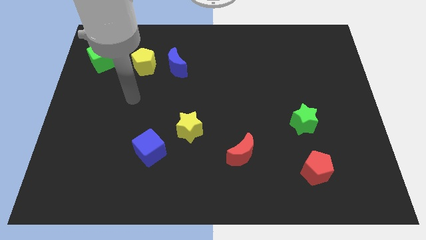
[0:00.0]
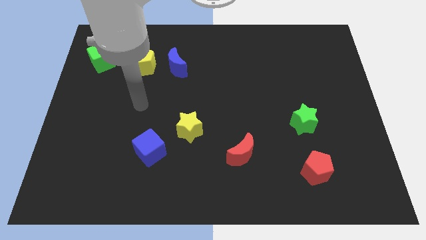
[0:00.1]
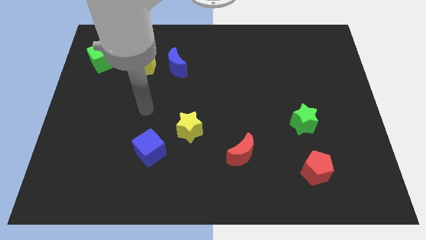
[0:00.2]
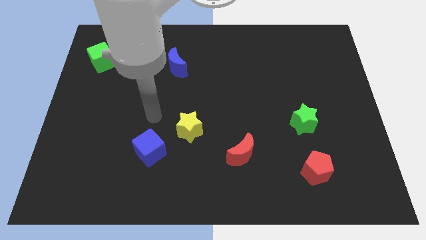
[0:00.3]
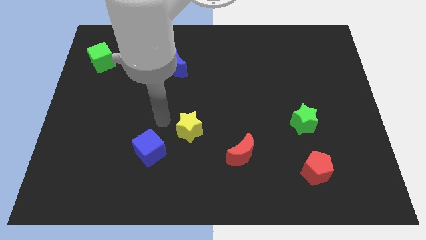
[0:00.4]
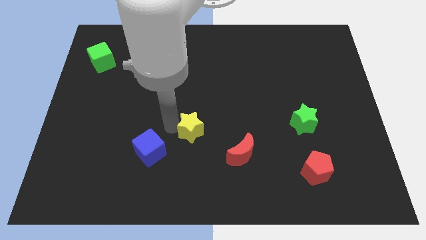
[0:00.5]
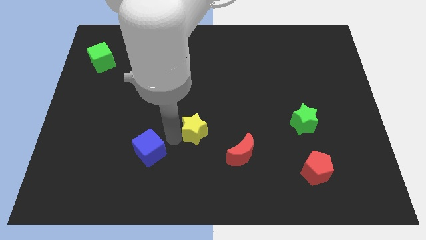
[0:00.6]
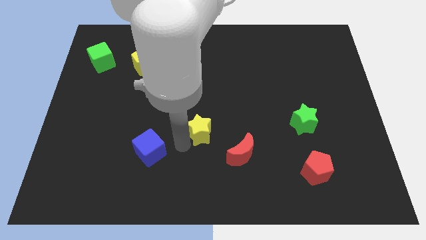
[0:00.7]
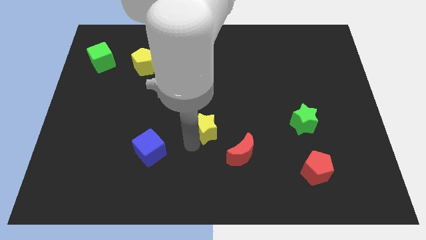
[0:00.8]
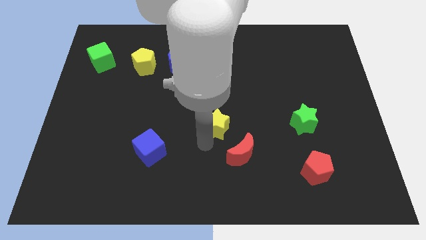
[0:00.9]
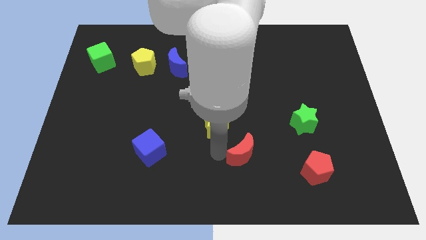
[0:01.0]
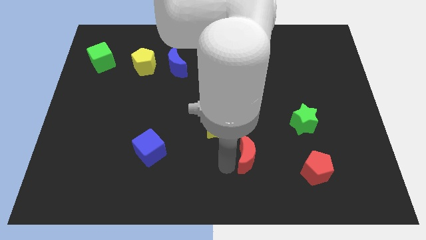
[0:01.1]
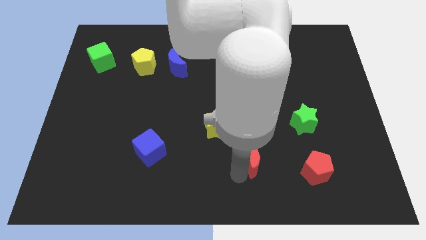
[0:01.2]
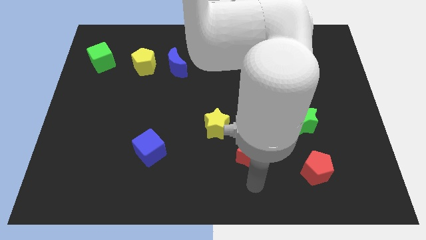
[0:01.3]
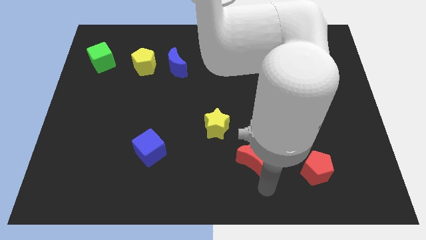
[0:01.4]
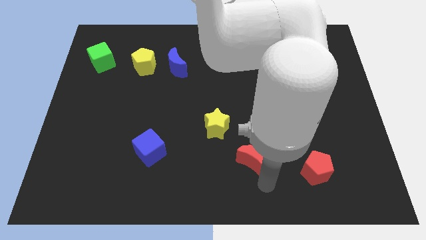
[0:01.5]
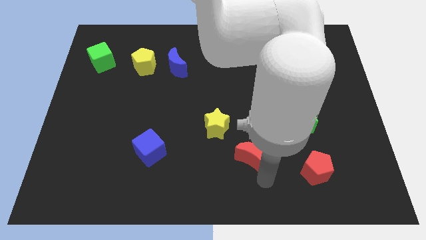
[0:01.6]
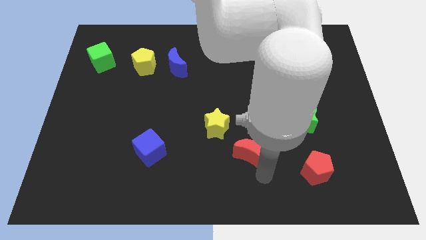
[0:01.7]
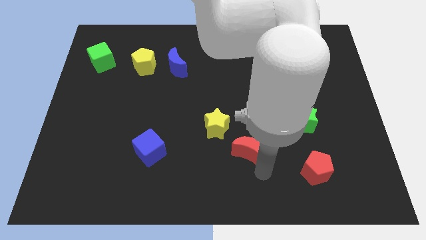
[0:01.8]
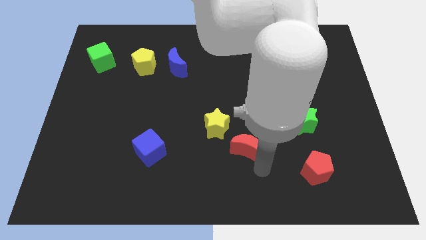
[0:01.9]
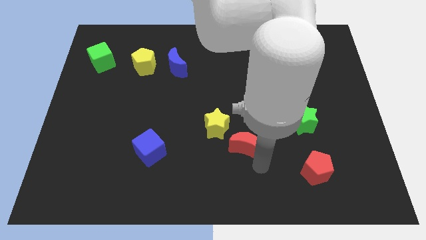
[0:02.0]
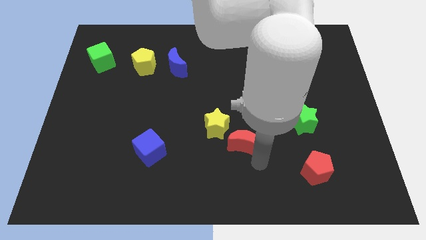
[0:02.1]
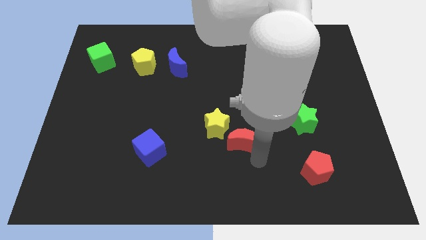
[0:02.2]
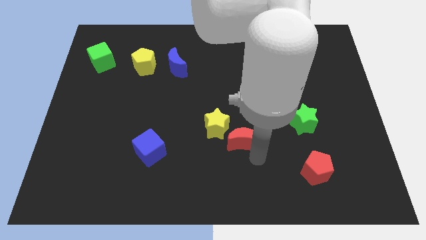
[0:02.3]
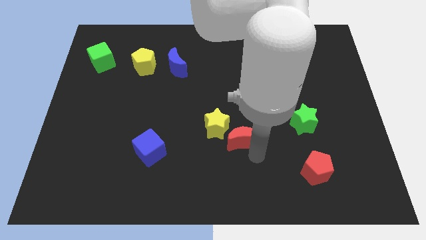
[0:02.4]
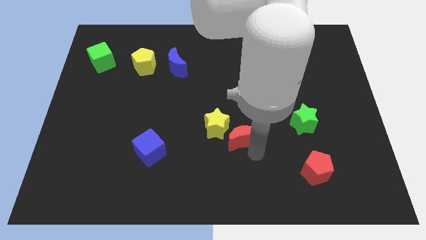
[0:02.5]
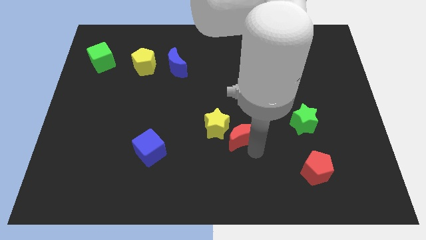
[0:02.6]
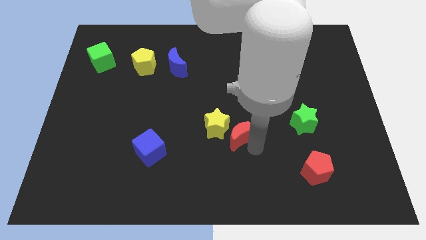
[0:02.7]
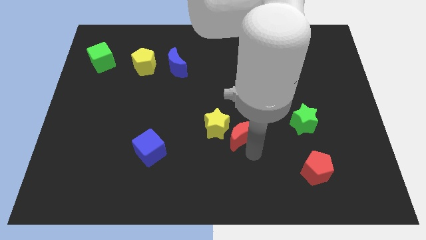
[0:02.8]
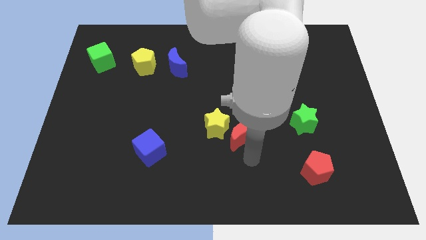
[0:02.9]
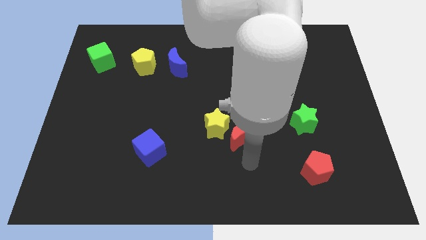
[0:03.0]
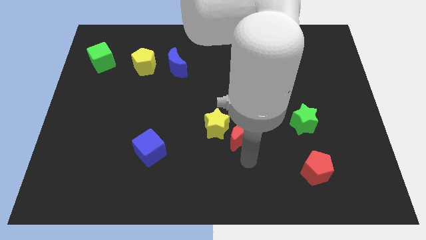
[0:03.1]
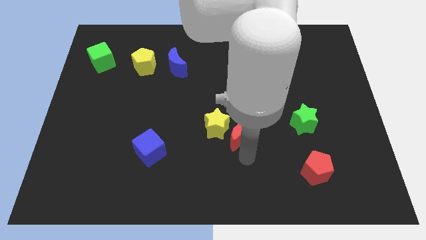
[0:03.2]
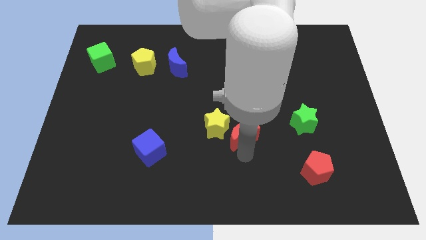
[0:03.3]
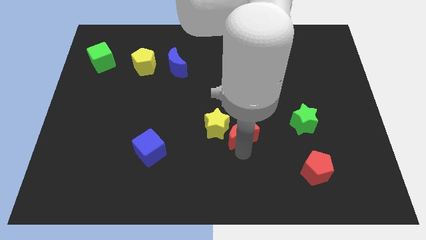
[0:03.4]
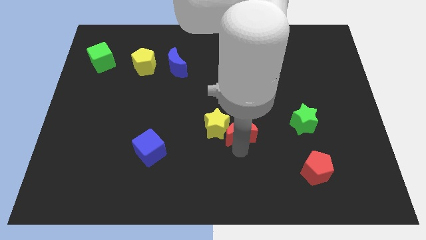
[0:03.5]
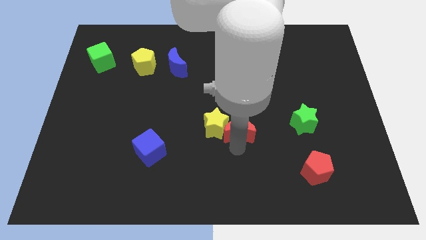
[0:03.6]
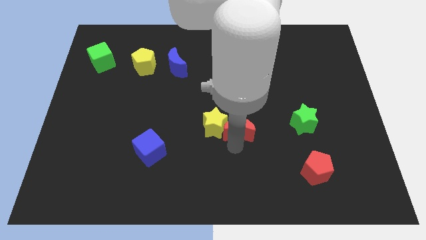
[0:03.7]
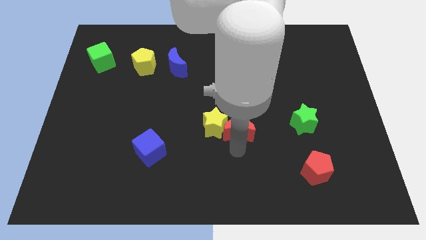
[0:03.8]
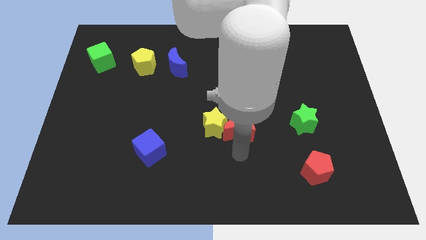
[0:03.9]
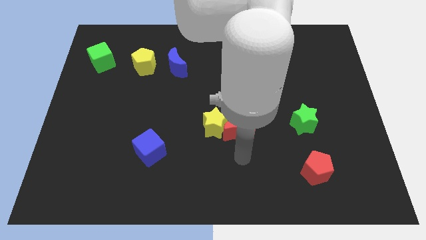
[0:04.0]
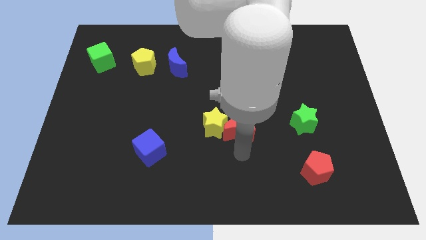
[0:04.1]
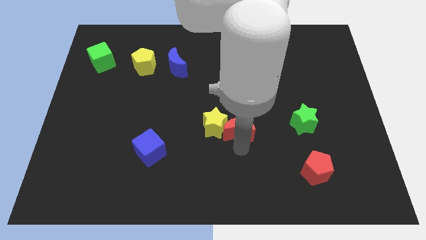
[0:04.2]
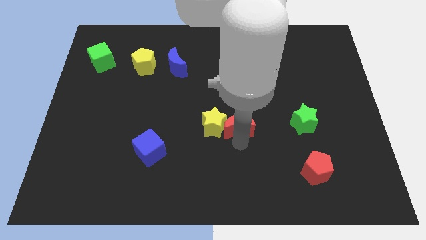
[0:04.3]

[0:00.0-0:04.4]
slightly move the red moon upwards

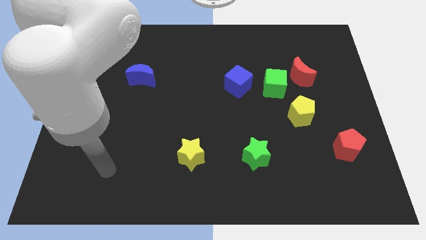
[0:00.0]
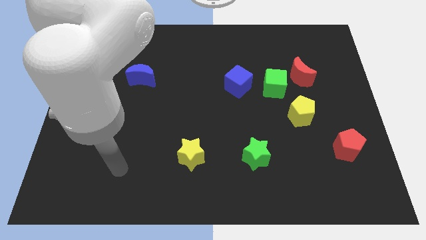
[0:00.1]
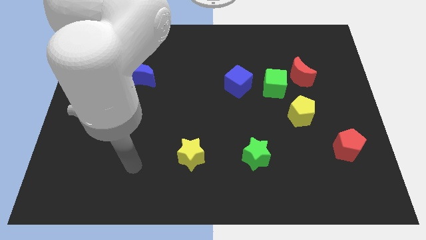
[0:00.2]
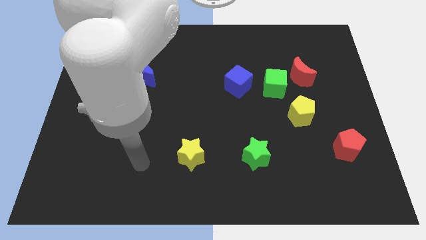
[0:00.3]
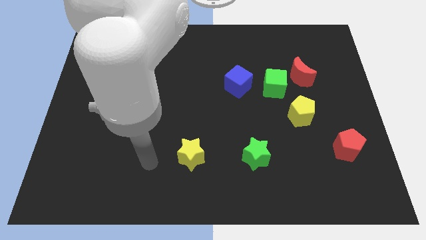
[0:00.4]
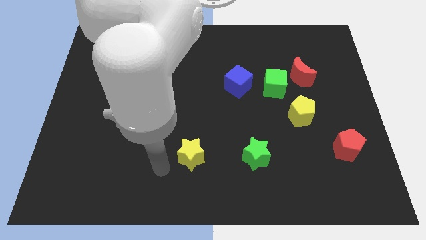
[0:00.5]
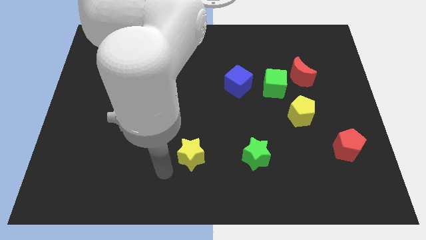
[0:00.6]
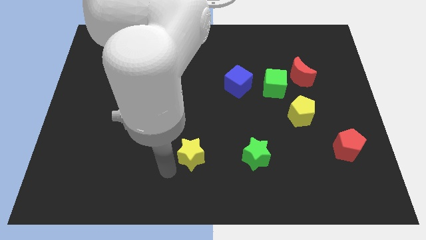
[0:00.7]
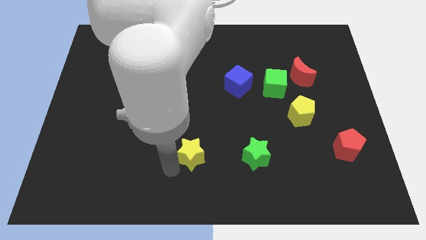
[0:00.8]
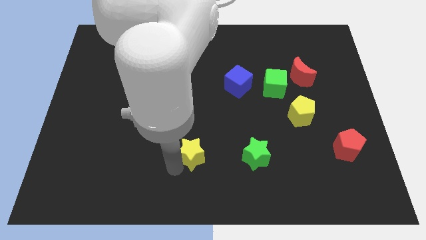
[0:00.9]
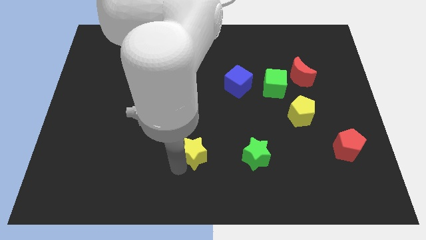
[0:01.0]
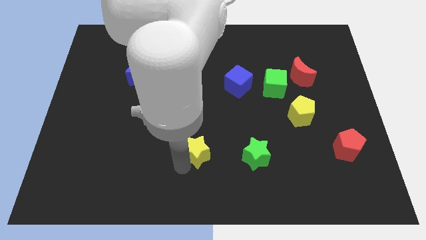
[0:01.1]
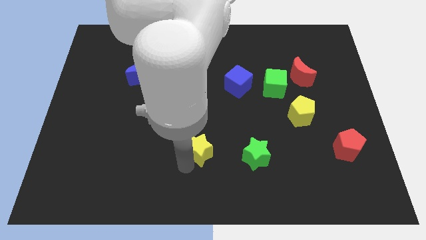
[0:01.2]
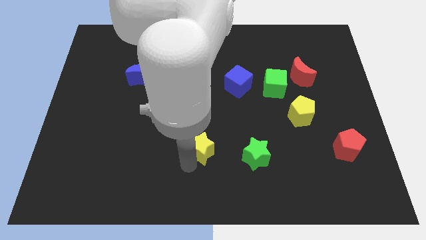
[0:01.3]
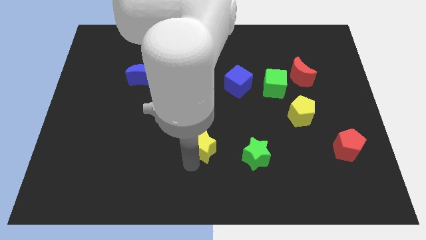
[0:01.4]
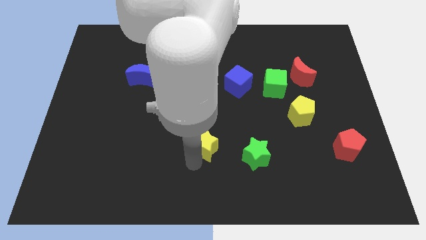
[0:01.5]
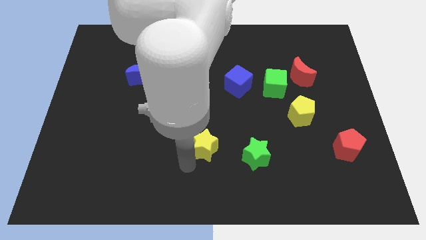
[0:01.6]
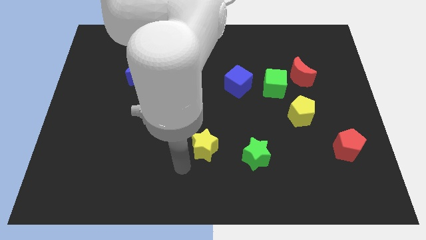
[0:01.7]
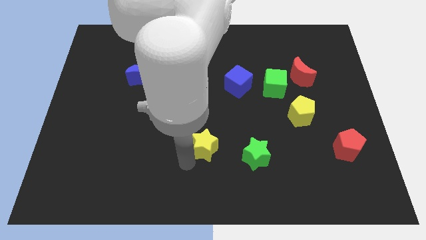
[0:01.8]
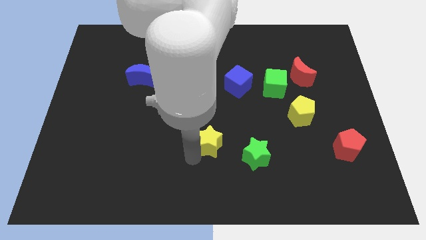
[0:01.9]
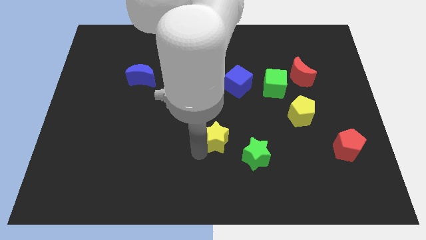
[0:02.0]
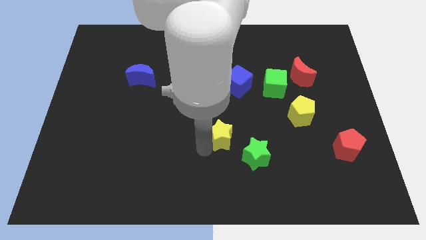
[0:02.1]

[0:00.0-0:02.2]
slightly push the yellow star upwards and then to the right

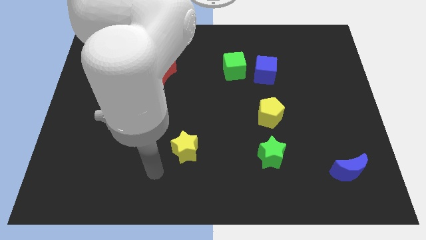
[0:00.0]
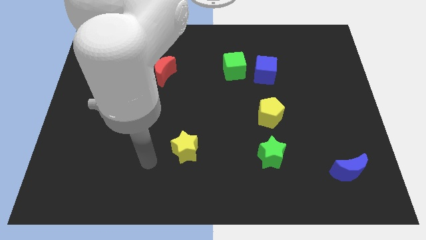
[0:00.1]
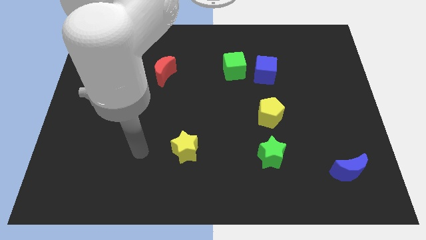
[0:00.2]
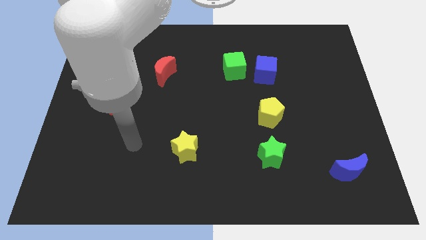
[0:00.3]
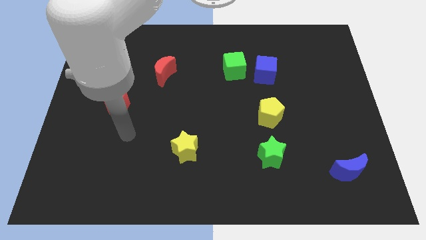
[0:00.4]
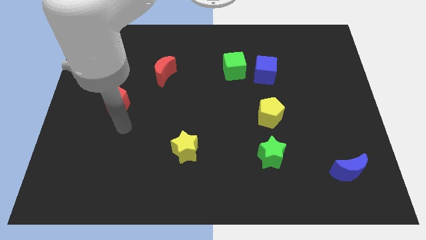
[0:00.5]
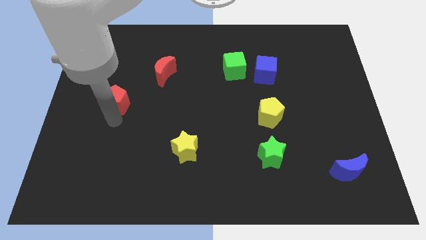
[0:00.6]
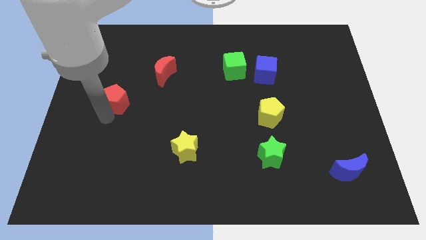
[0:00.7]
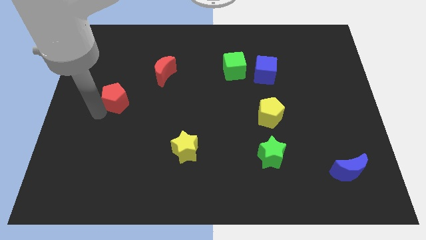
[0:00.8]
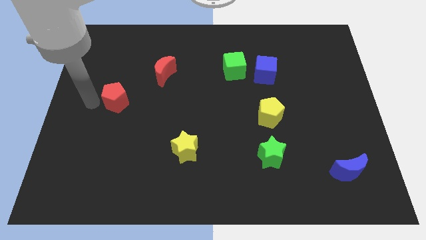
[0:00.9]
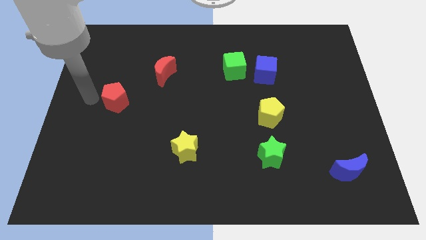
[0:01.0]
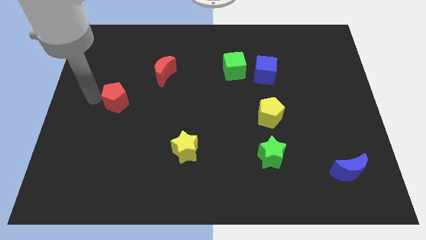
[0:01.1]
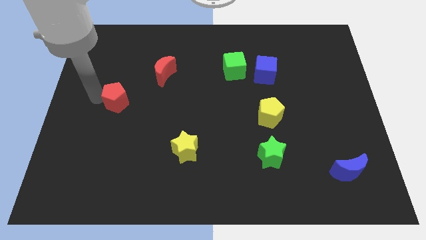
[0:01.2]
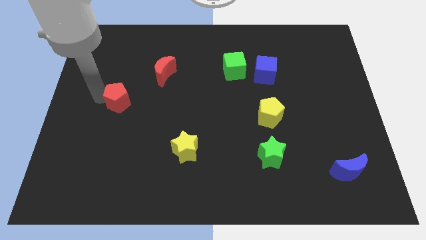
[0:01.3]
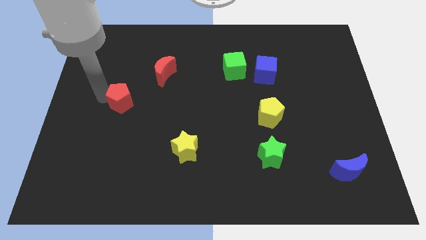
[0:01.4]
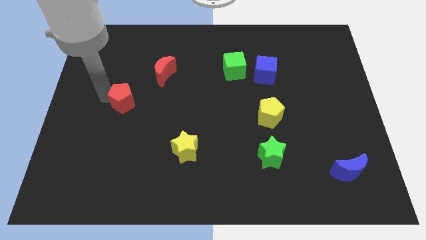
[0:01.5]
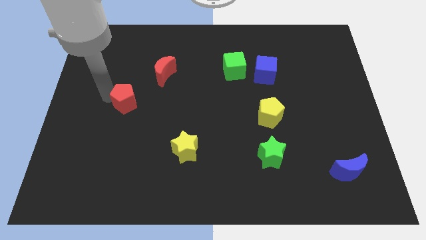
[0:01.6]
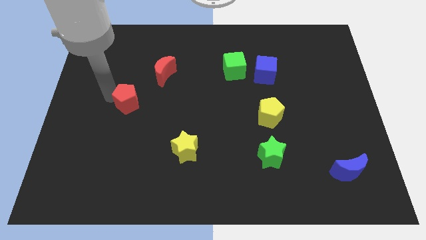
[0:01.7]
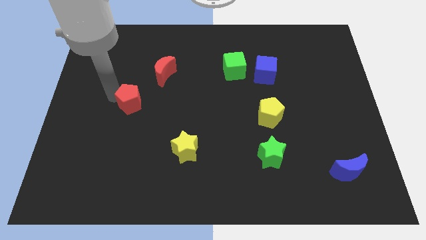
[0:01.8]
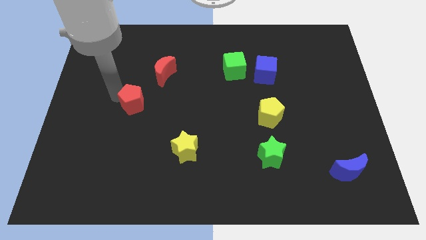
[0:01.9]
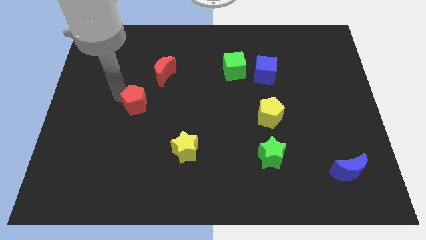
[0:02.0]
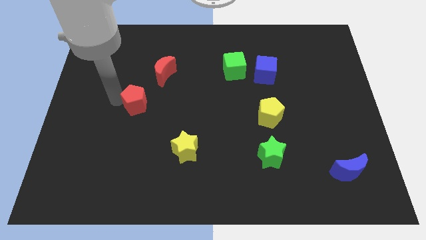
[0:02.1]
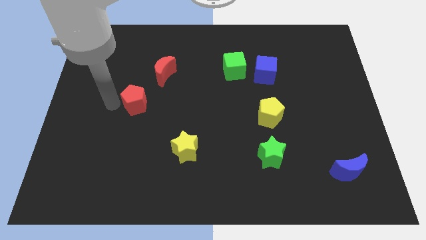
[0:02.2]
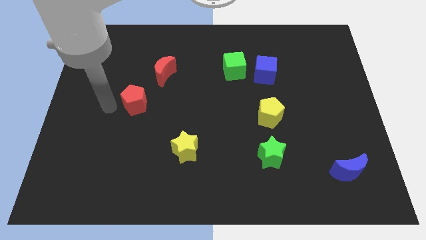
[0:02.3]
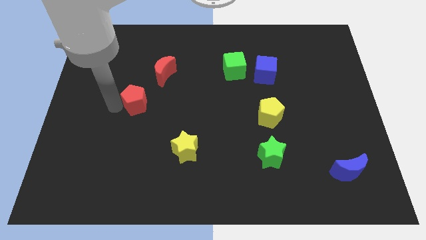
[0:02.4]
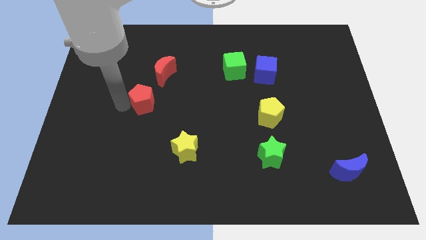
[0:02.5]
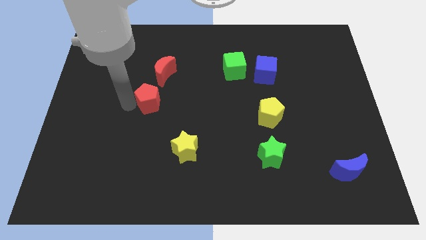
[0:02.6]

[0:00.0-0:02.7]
push the red pentagon right slightly
